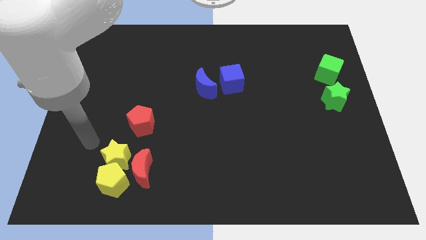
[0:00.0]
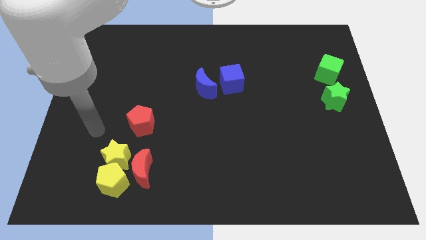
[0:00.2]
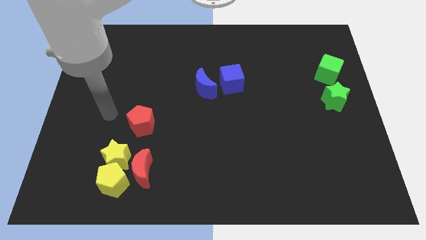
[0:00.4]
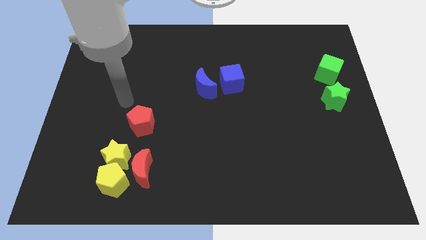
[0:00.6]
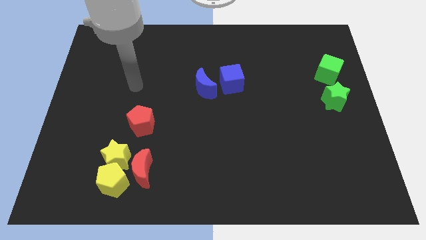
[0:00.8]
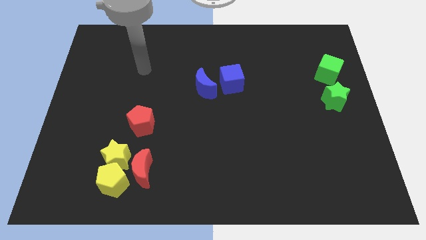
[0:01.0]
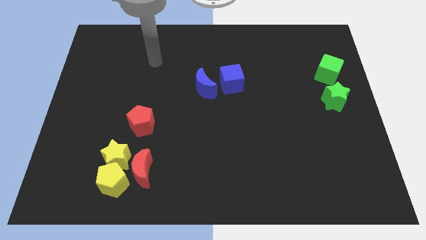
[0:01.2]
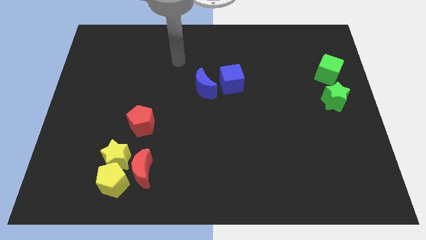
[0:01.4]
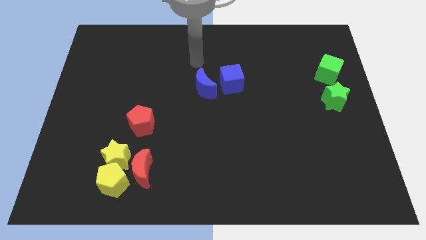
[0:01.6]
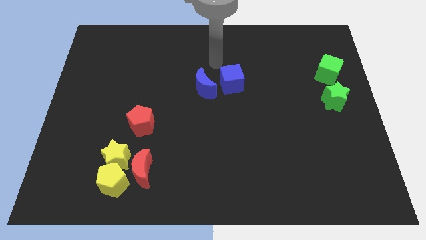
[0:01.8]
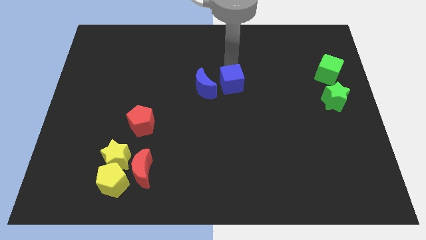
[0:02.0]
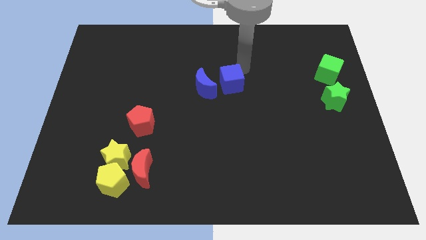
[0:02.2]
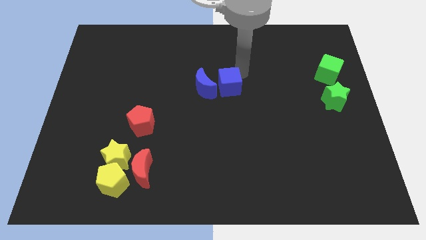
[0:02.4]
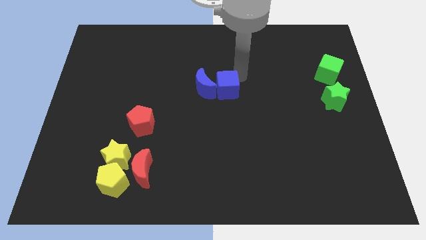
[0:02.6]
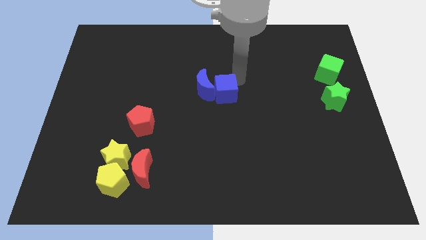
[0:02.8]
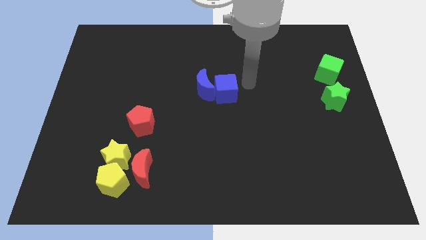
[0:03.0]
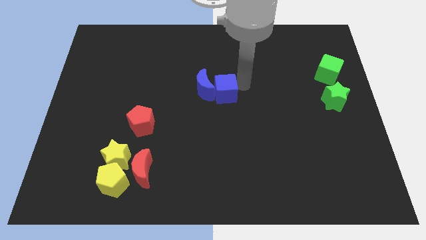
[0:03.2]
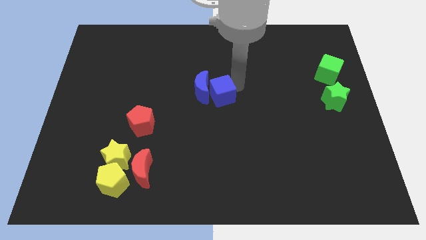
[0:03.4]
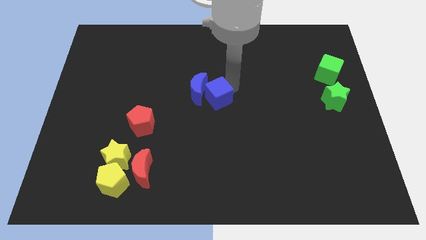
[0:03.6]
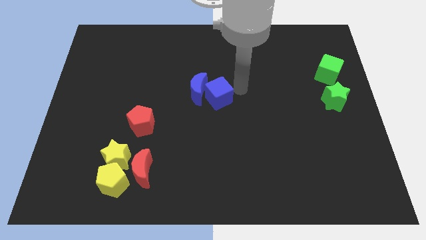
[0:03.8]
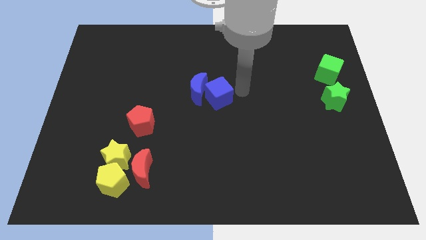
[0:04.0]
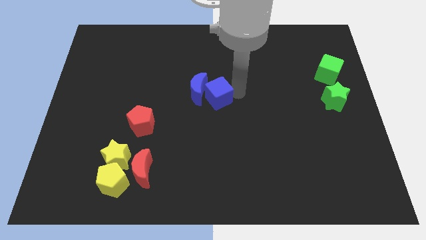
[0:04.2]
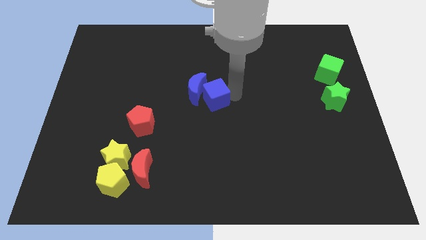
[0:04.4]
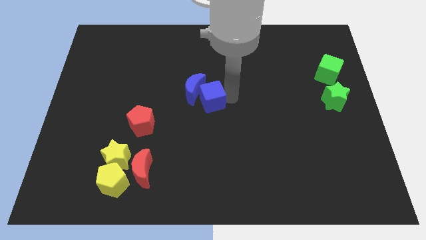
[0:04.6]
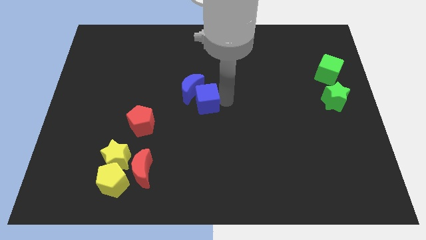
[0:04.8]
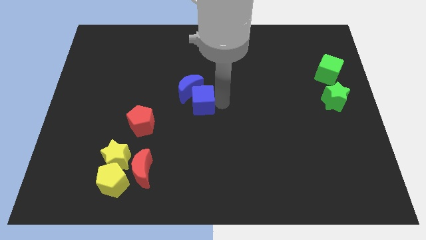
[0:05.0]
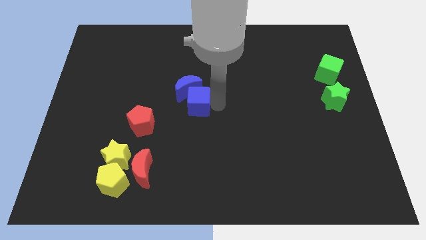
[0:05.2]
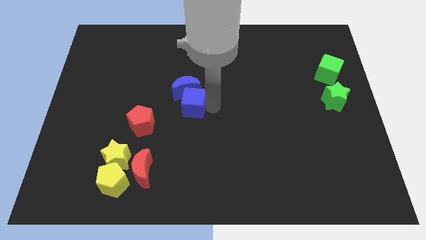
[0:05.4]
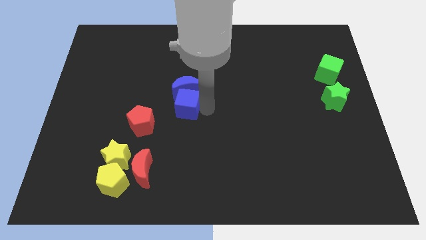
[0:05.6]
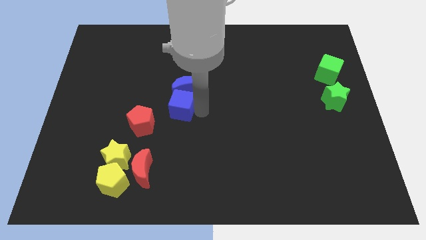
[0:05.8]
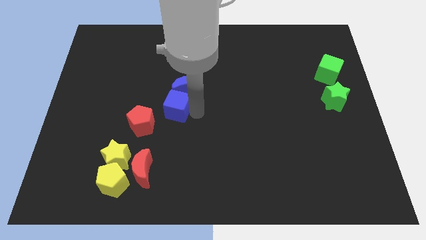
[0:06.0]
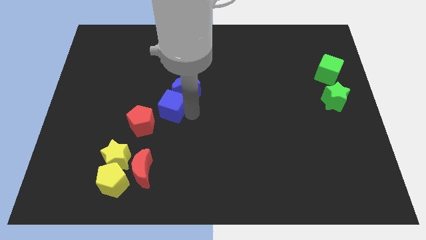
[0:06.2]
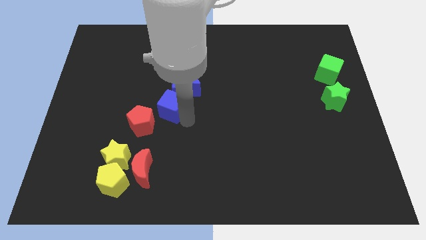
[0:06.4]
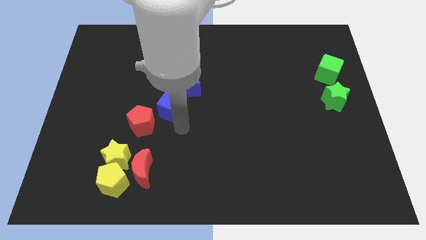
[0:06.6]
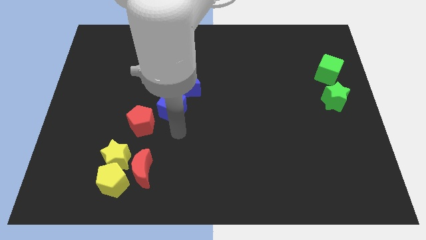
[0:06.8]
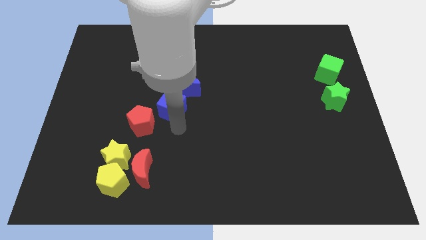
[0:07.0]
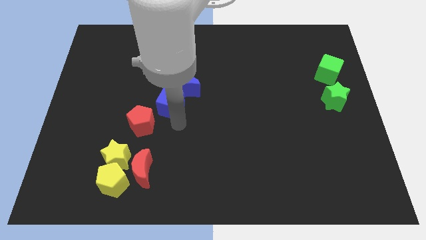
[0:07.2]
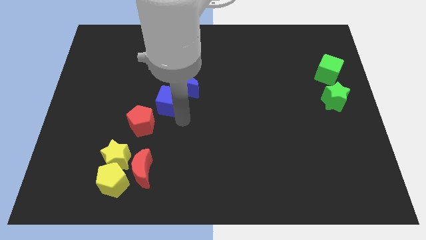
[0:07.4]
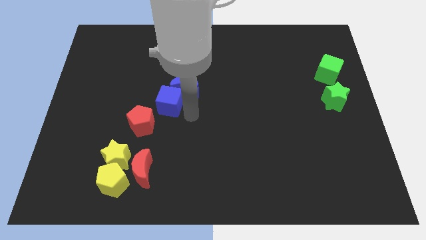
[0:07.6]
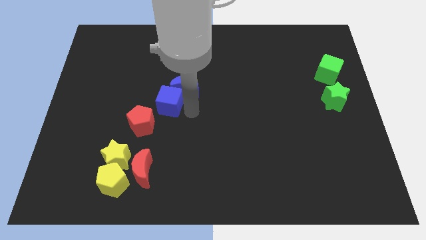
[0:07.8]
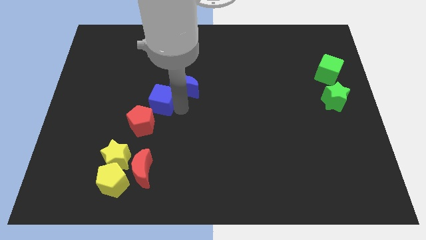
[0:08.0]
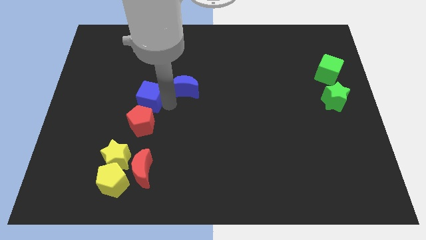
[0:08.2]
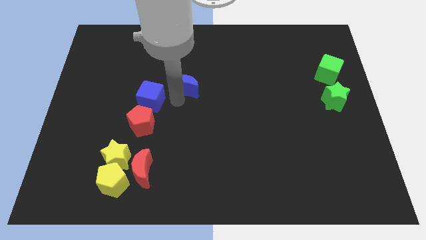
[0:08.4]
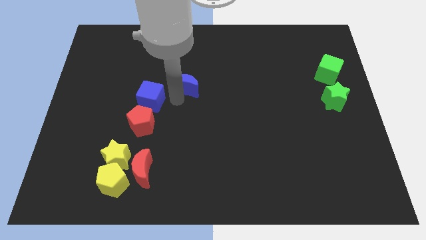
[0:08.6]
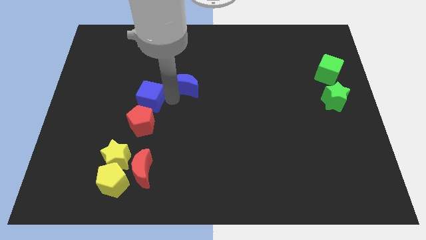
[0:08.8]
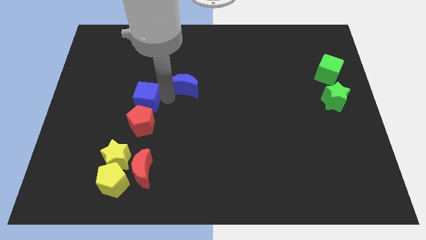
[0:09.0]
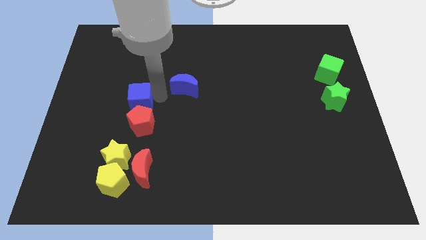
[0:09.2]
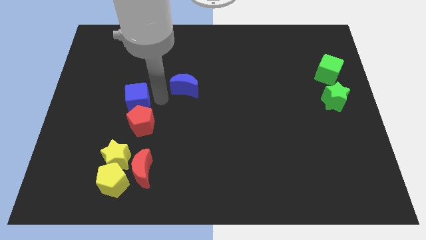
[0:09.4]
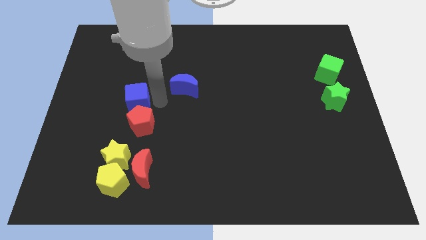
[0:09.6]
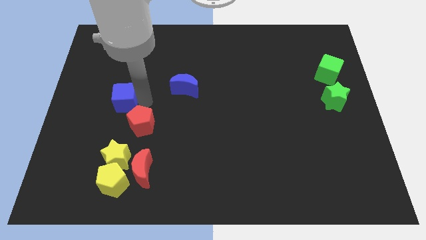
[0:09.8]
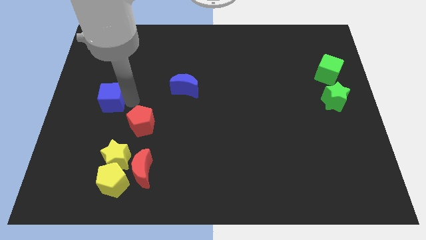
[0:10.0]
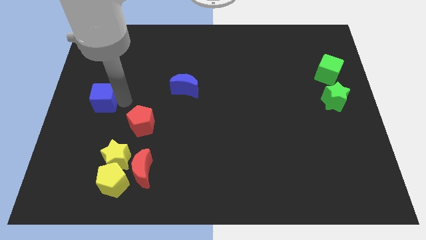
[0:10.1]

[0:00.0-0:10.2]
push the blue cube to the left side

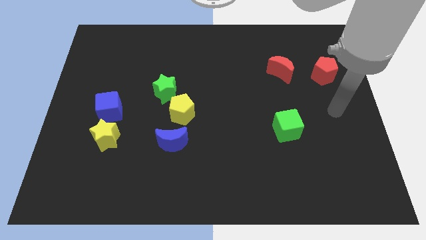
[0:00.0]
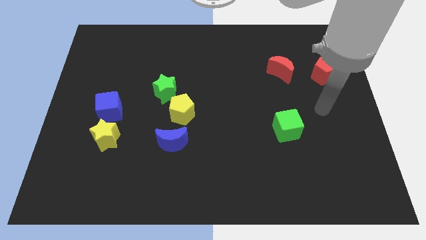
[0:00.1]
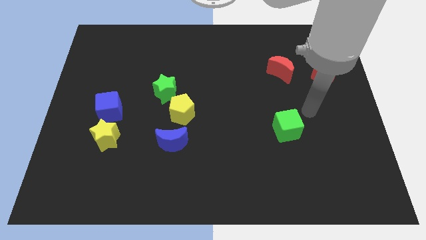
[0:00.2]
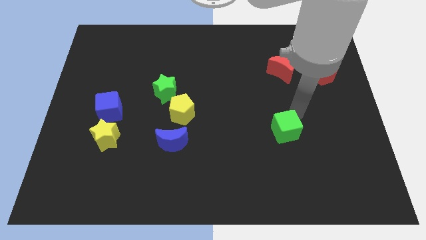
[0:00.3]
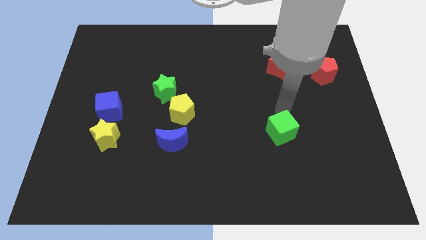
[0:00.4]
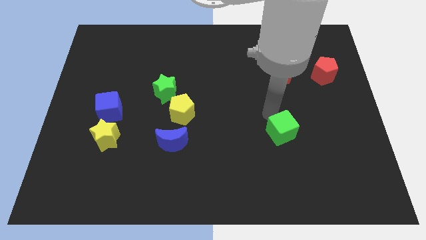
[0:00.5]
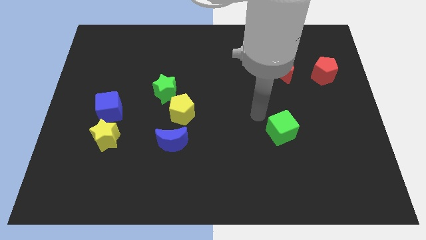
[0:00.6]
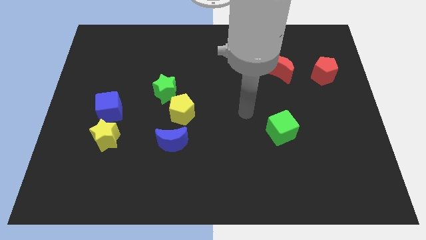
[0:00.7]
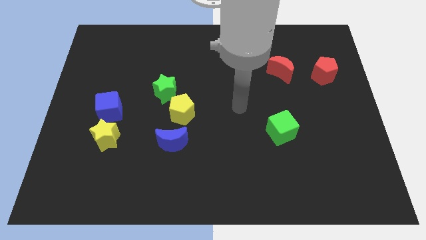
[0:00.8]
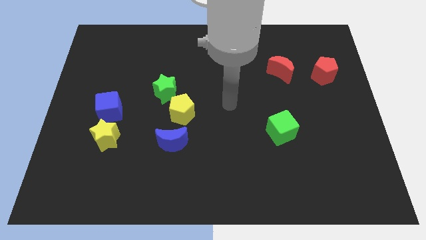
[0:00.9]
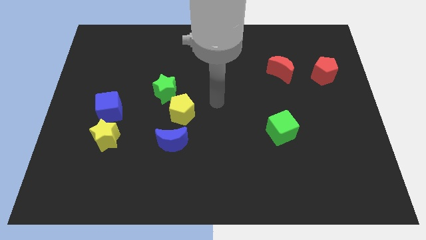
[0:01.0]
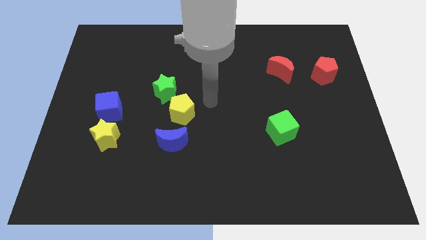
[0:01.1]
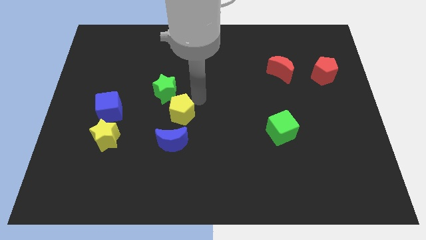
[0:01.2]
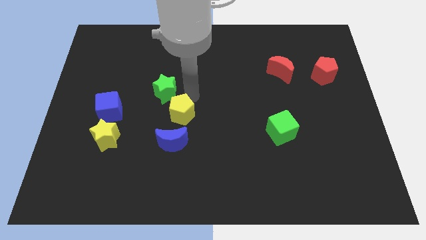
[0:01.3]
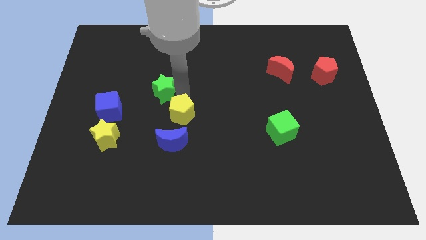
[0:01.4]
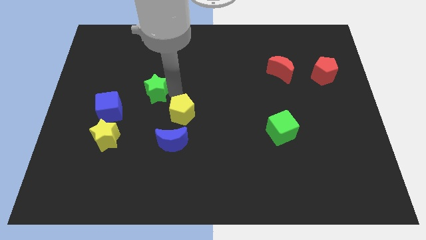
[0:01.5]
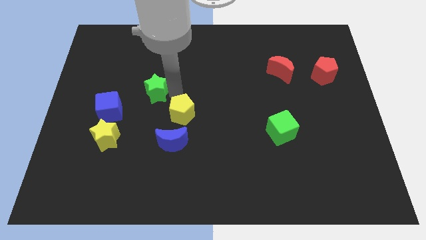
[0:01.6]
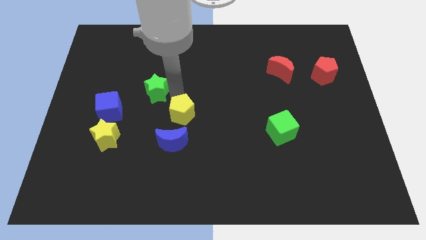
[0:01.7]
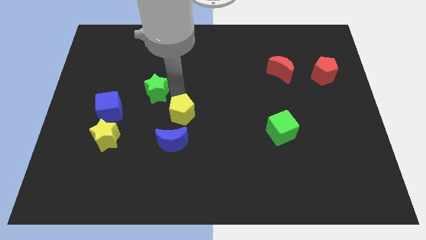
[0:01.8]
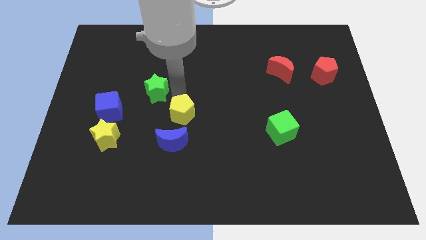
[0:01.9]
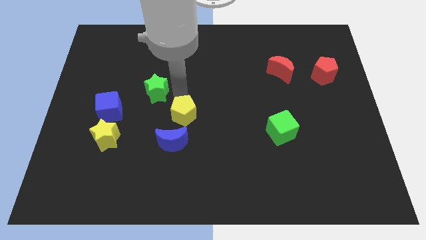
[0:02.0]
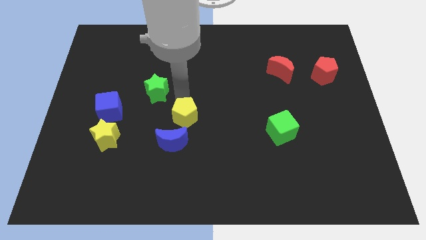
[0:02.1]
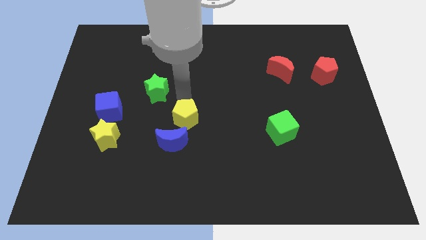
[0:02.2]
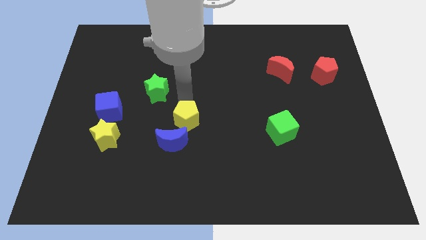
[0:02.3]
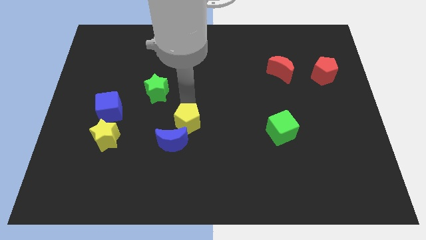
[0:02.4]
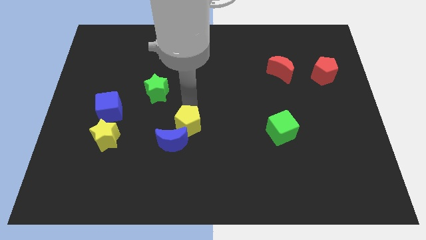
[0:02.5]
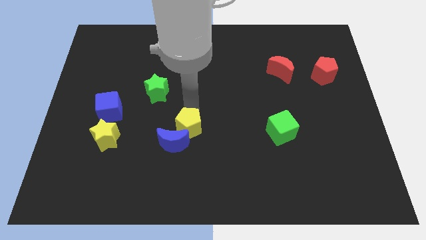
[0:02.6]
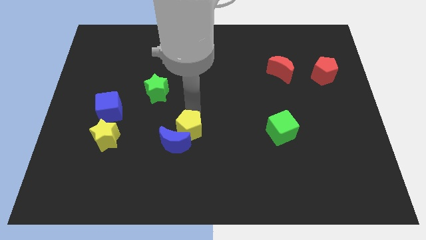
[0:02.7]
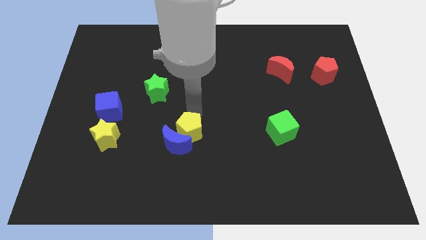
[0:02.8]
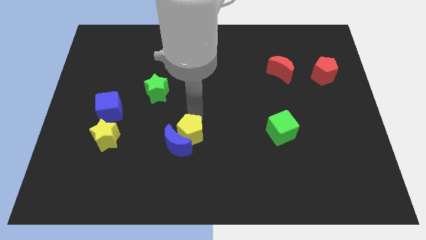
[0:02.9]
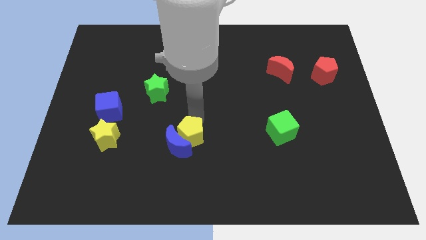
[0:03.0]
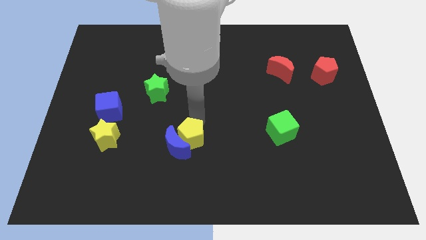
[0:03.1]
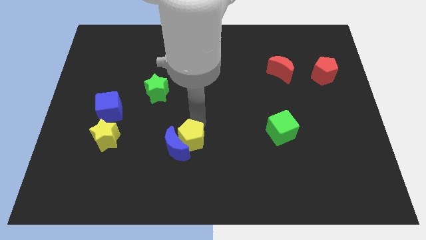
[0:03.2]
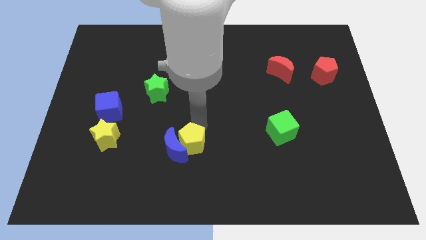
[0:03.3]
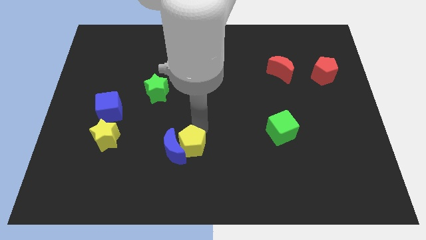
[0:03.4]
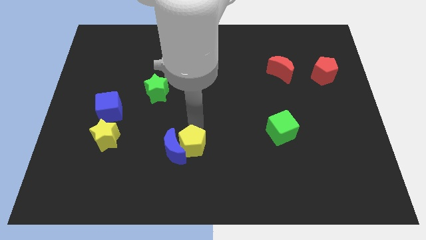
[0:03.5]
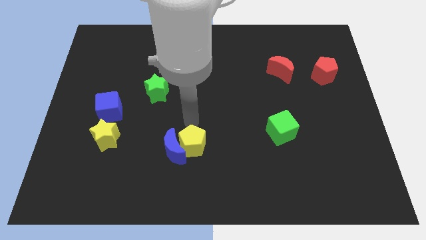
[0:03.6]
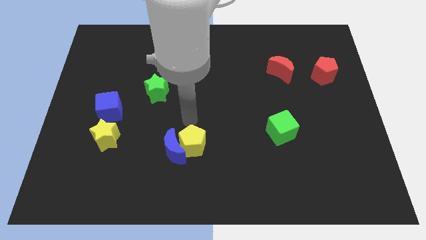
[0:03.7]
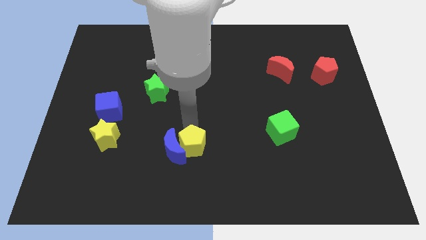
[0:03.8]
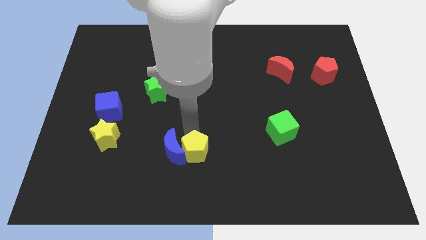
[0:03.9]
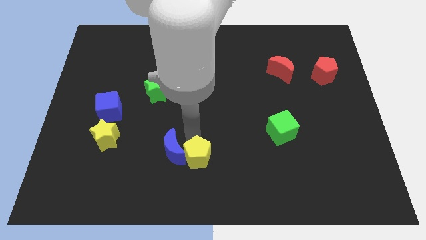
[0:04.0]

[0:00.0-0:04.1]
push the yellow pentagon to the bottom
